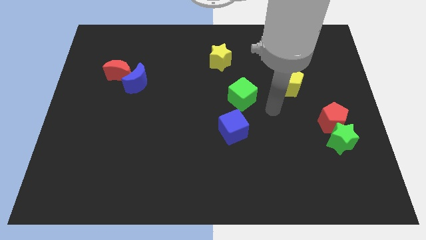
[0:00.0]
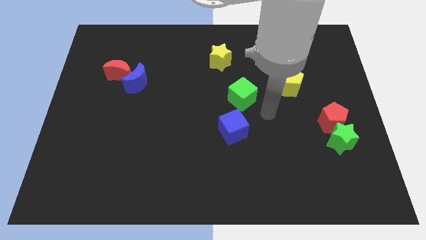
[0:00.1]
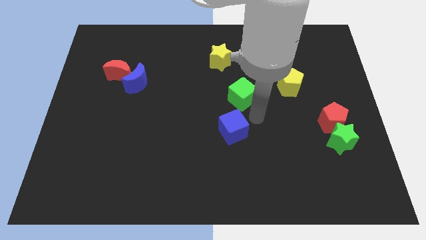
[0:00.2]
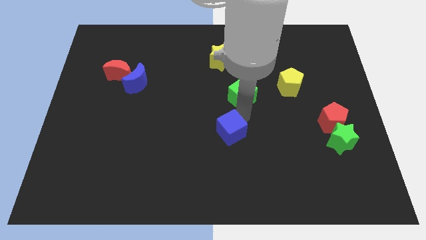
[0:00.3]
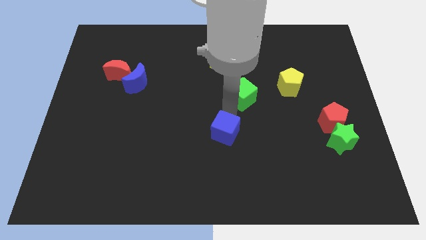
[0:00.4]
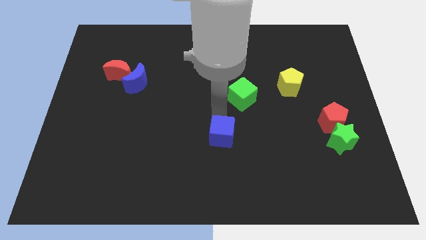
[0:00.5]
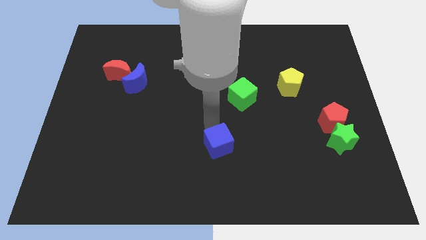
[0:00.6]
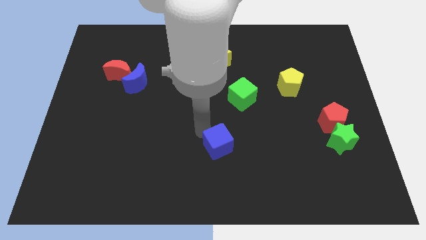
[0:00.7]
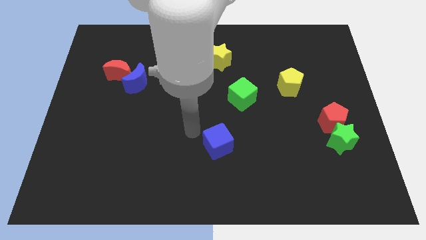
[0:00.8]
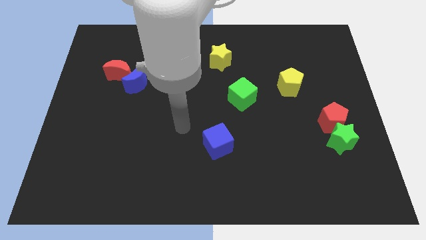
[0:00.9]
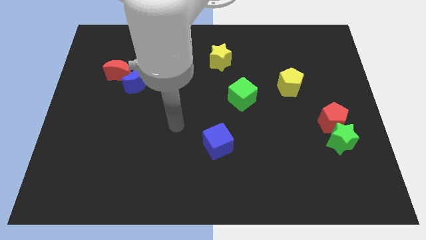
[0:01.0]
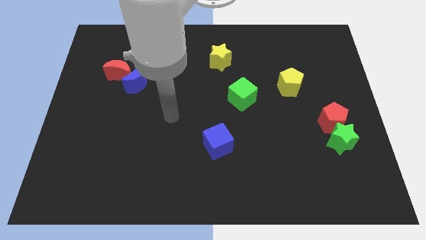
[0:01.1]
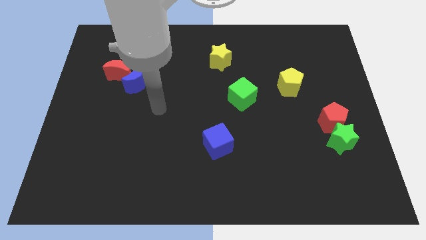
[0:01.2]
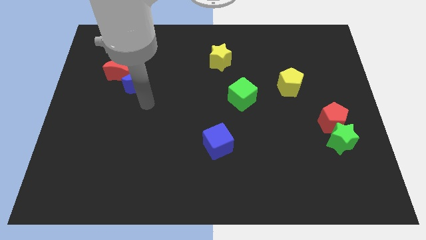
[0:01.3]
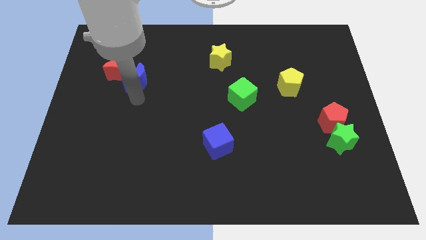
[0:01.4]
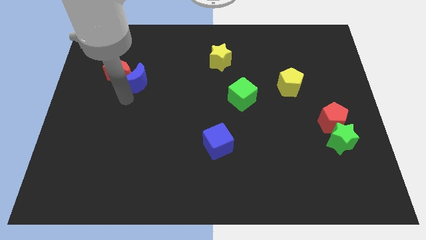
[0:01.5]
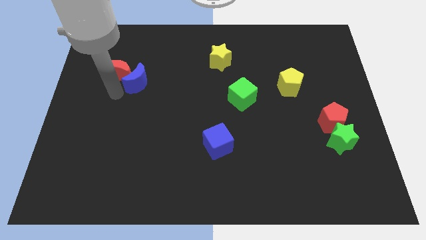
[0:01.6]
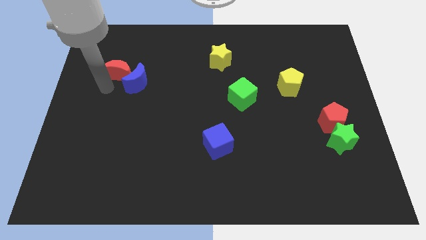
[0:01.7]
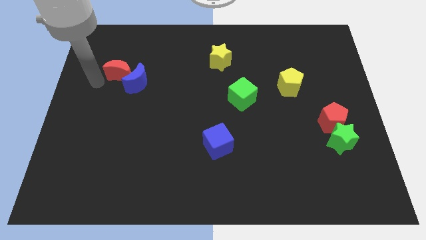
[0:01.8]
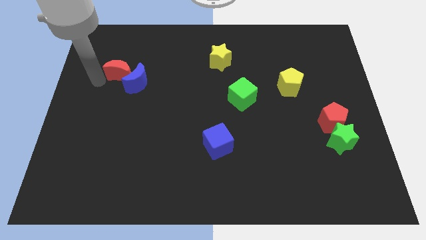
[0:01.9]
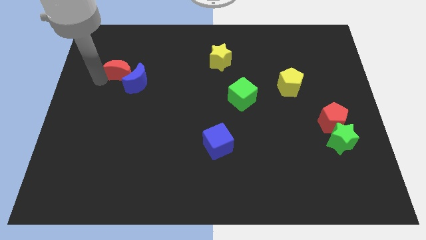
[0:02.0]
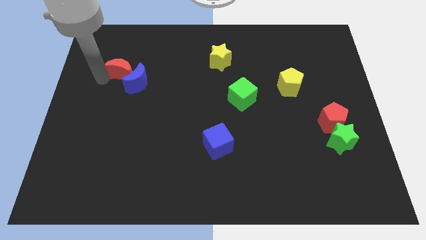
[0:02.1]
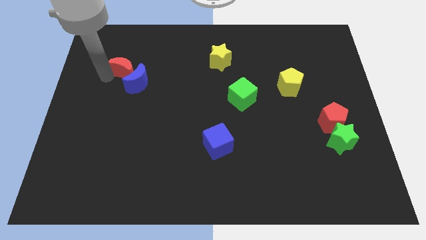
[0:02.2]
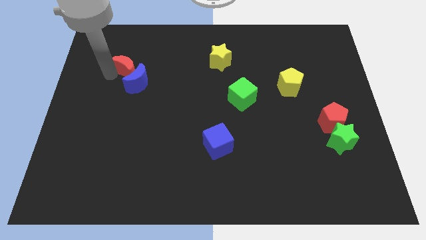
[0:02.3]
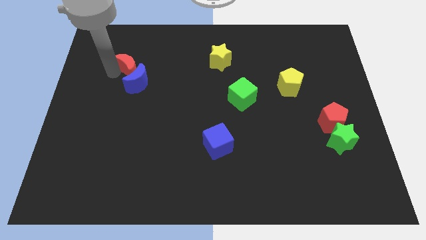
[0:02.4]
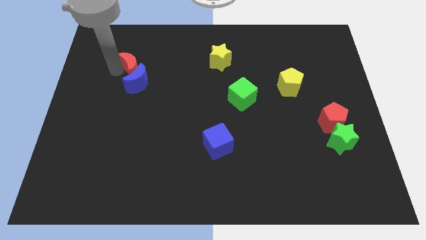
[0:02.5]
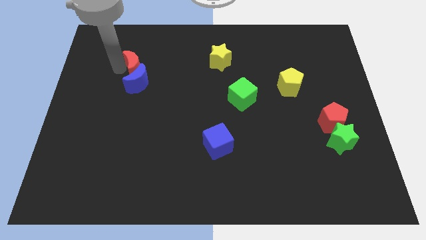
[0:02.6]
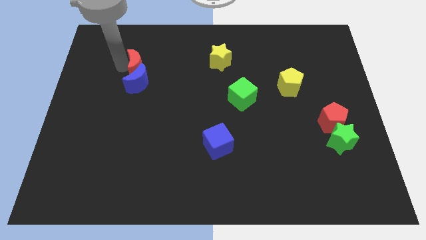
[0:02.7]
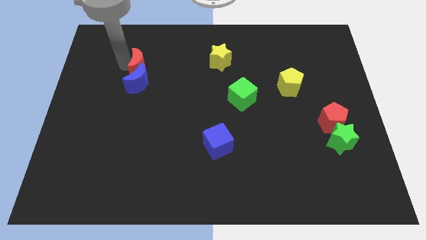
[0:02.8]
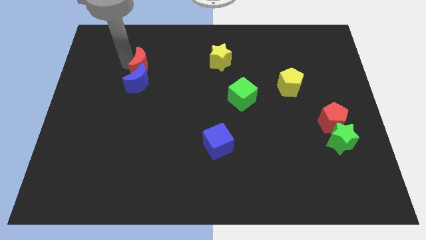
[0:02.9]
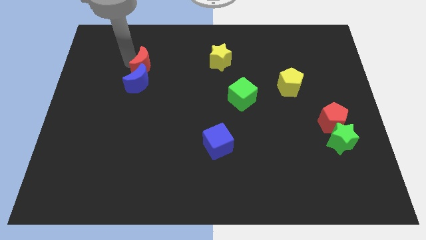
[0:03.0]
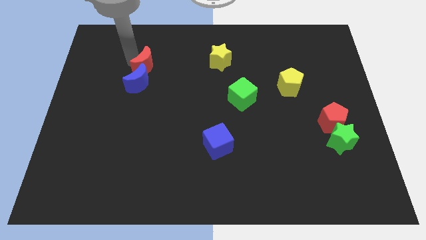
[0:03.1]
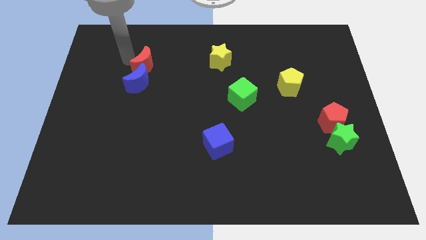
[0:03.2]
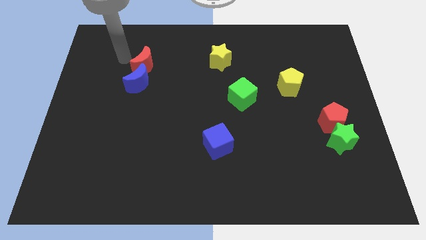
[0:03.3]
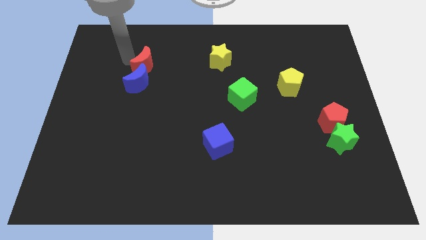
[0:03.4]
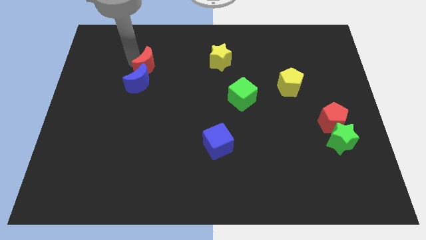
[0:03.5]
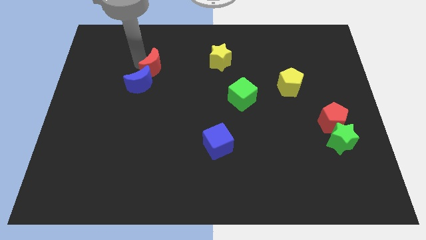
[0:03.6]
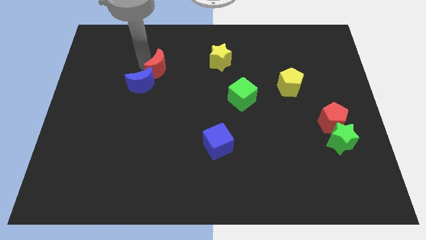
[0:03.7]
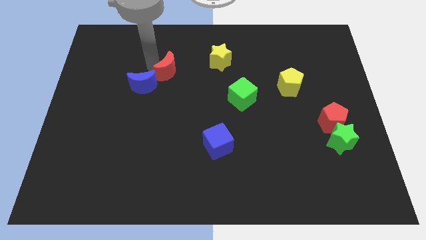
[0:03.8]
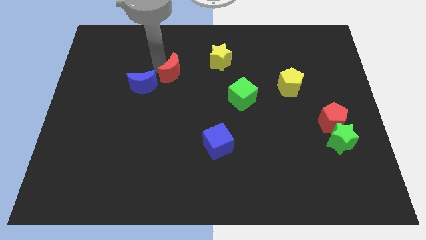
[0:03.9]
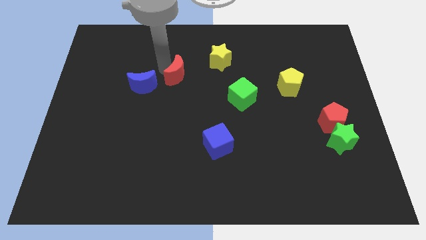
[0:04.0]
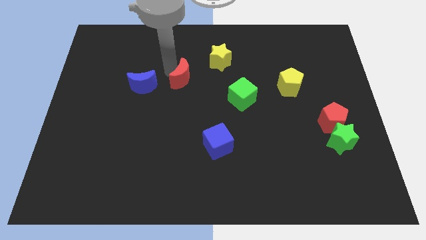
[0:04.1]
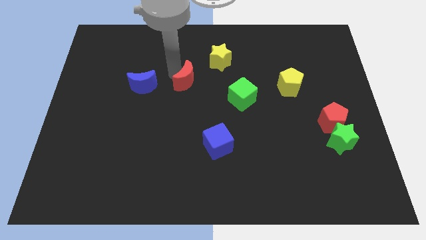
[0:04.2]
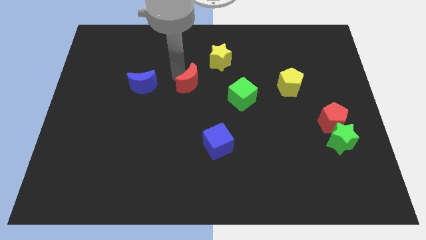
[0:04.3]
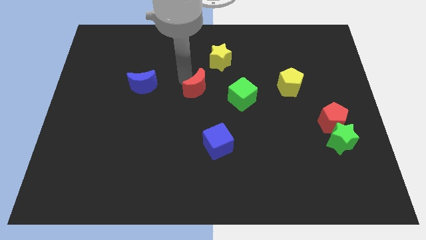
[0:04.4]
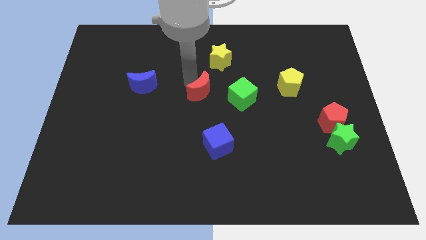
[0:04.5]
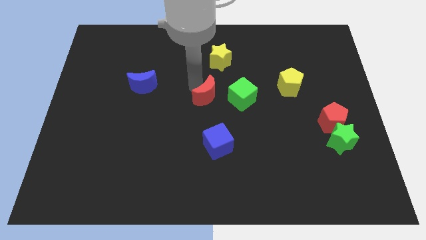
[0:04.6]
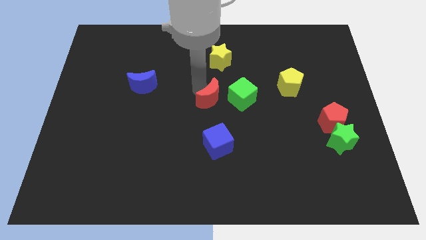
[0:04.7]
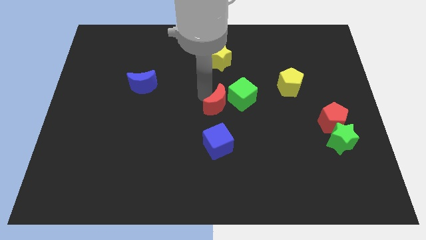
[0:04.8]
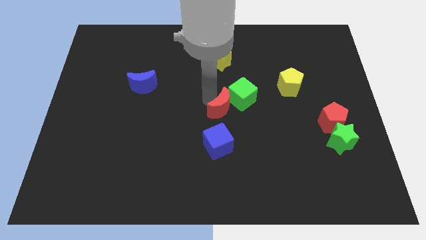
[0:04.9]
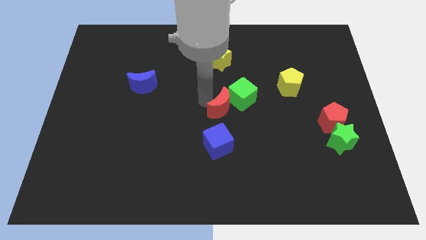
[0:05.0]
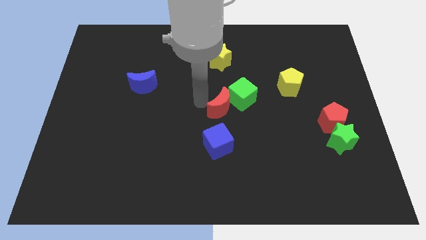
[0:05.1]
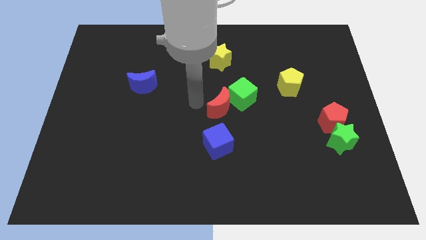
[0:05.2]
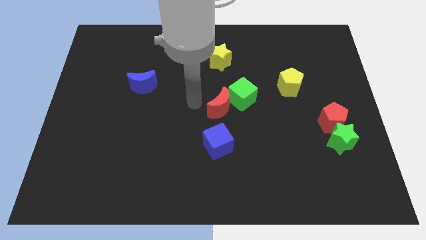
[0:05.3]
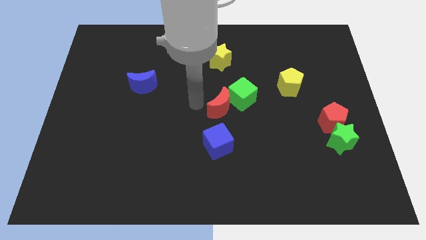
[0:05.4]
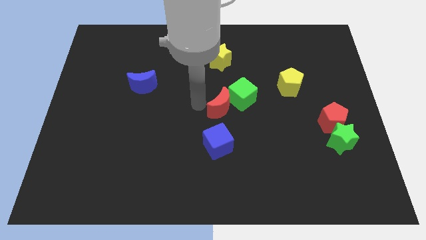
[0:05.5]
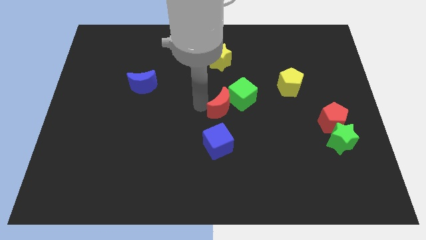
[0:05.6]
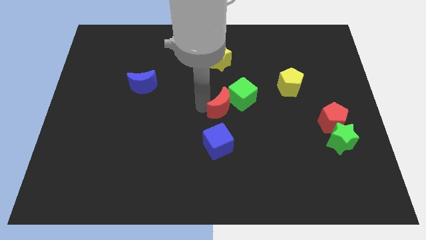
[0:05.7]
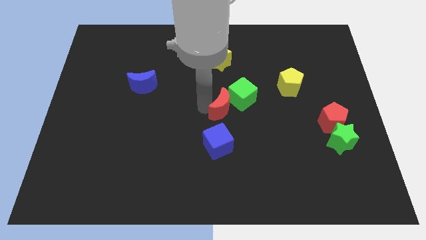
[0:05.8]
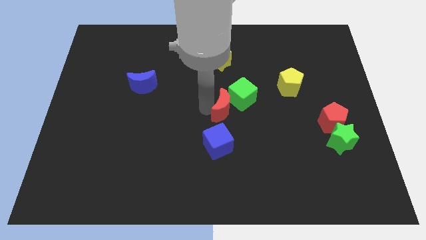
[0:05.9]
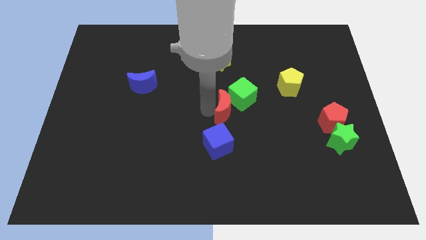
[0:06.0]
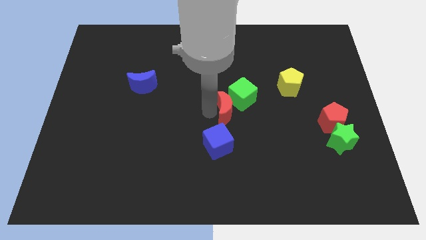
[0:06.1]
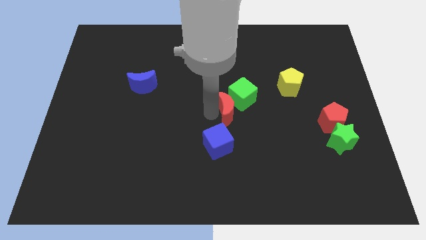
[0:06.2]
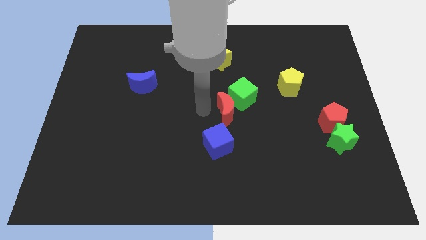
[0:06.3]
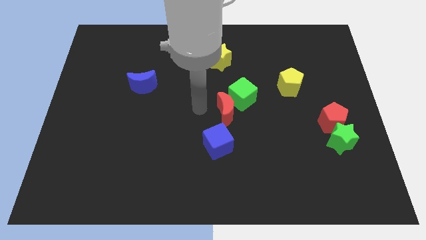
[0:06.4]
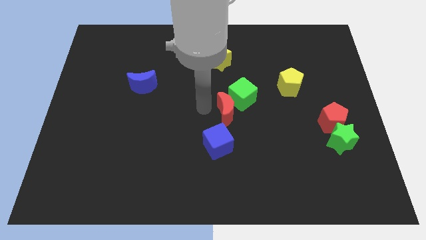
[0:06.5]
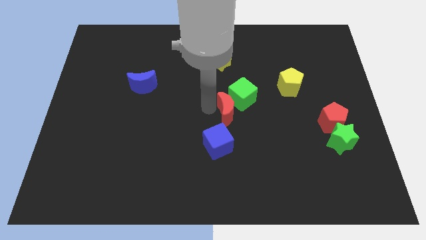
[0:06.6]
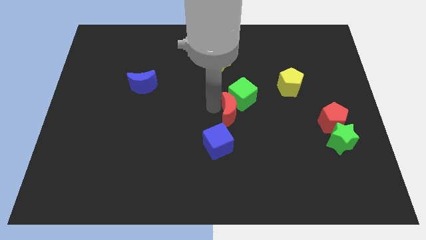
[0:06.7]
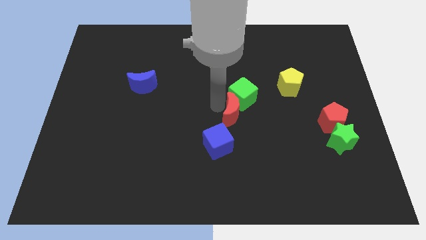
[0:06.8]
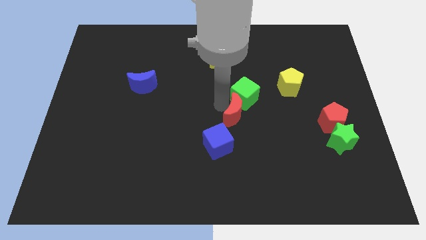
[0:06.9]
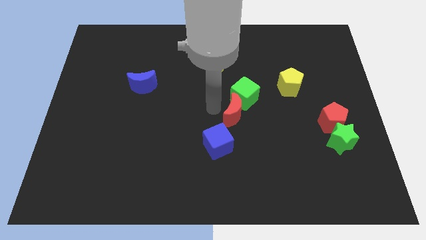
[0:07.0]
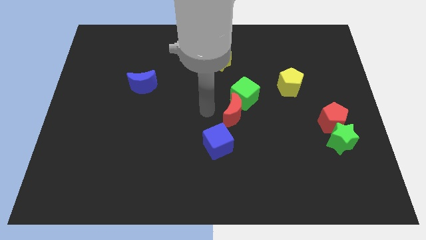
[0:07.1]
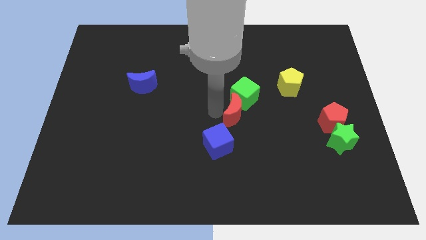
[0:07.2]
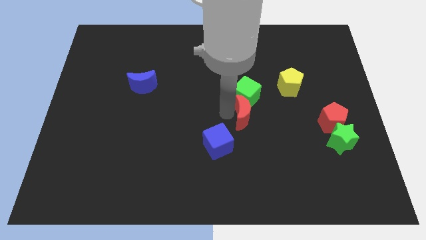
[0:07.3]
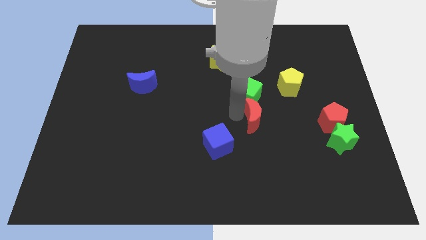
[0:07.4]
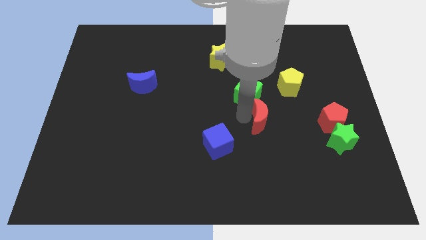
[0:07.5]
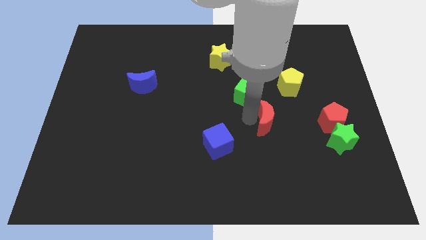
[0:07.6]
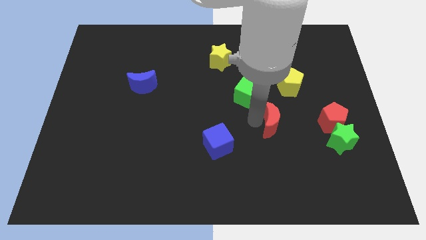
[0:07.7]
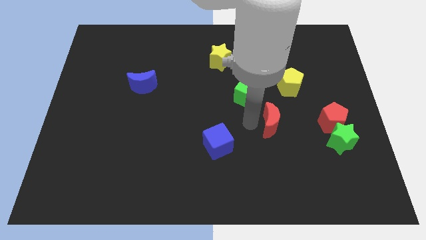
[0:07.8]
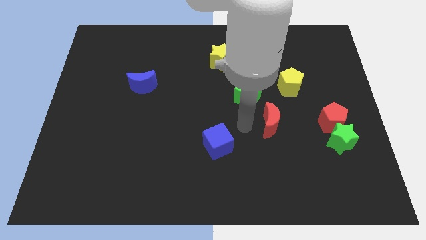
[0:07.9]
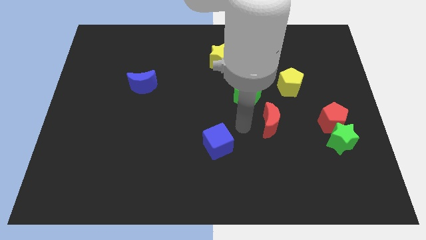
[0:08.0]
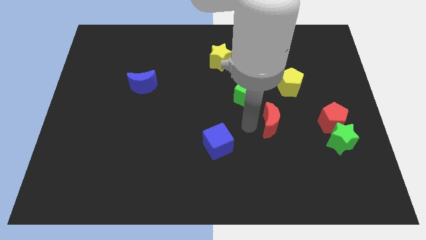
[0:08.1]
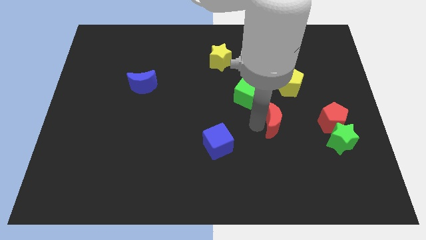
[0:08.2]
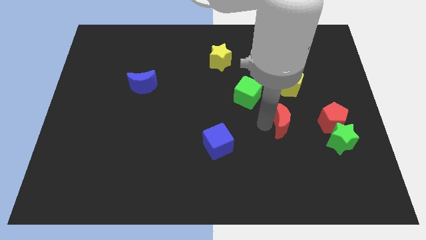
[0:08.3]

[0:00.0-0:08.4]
move the red moon to the bottom side of the yellow pentagon
